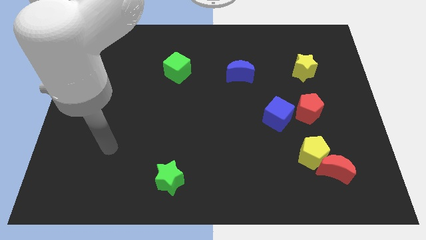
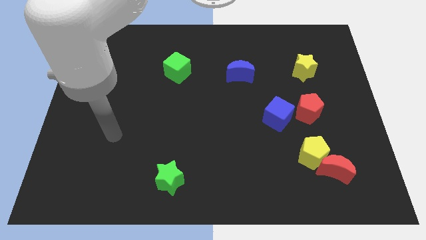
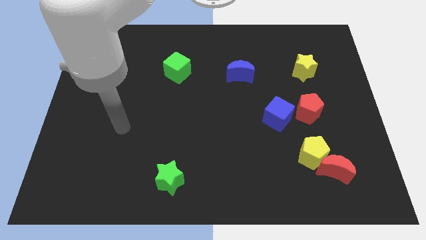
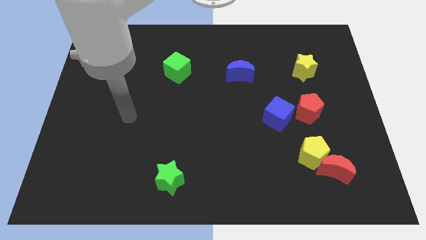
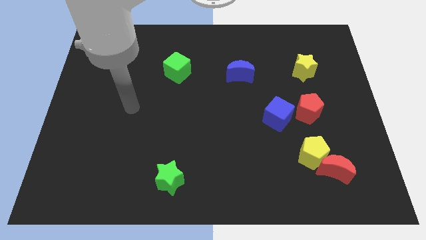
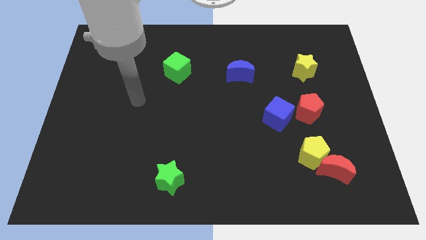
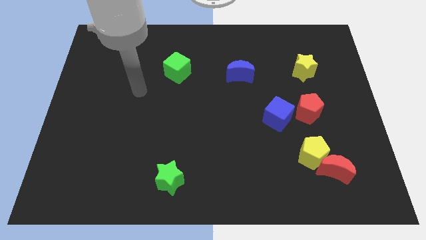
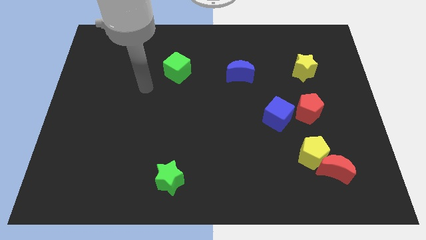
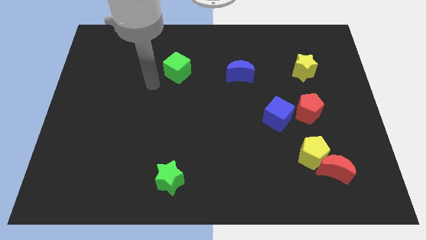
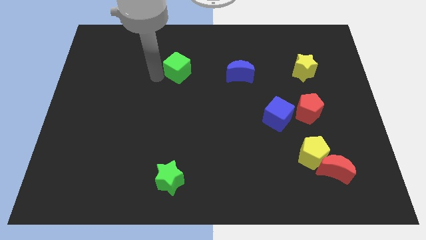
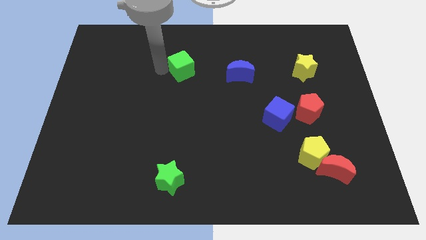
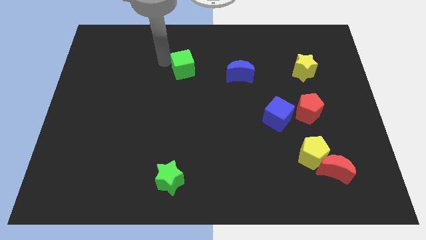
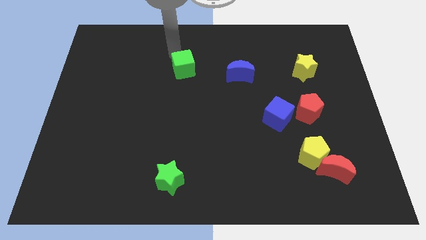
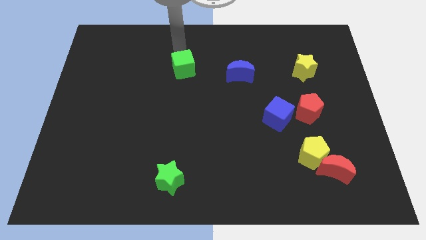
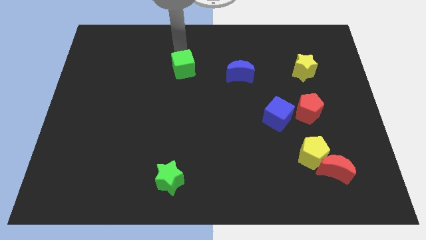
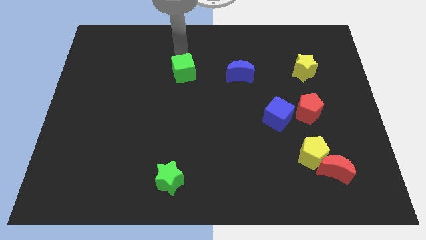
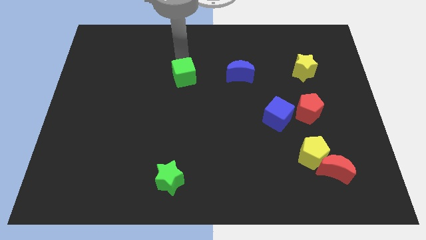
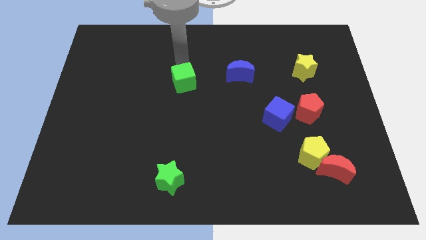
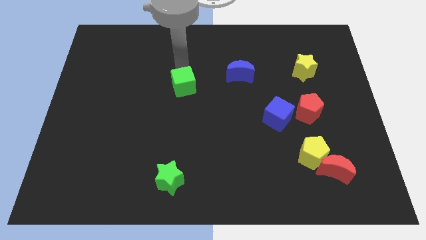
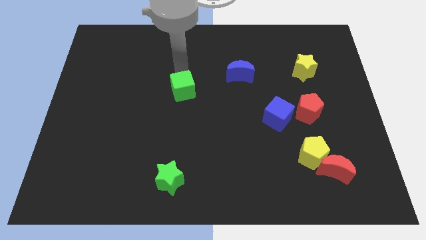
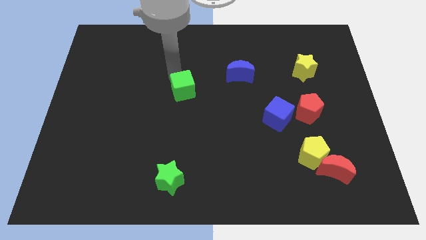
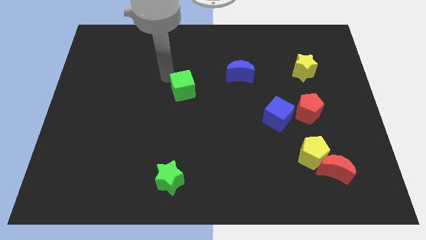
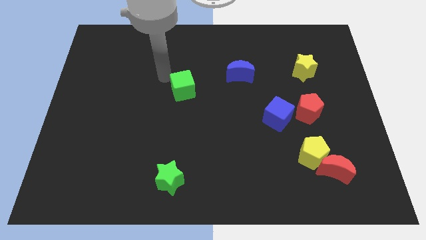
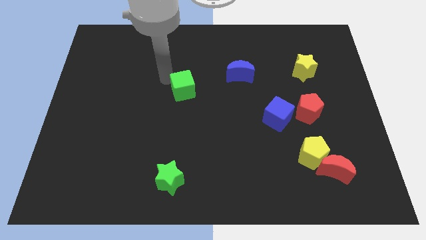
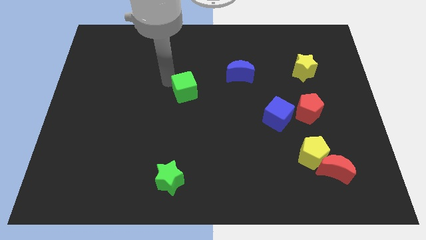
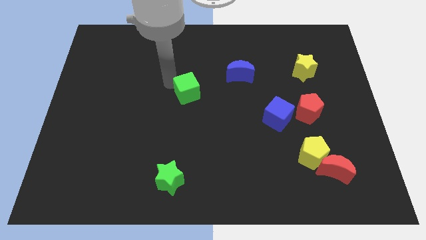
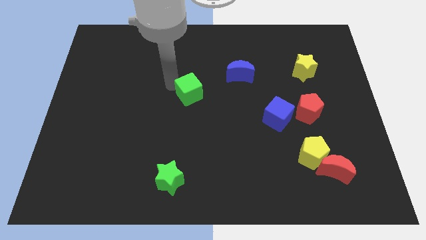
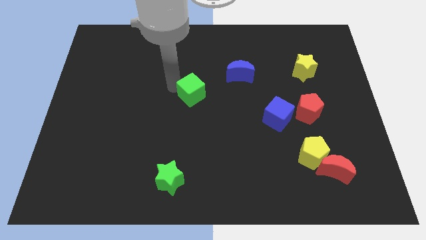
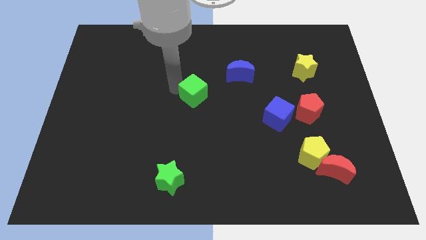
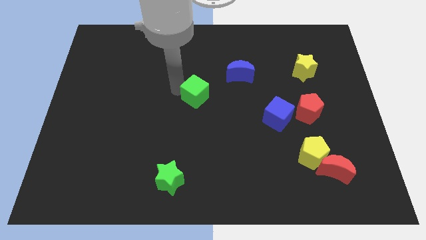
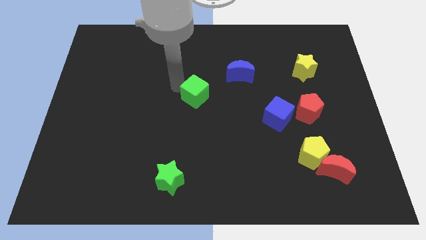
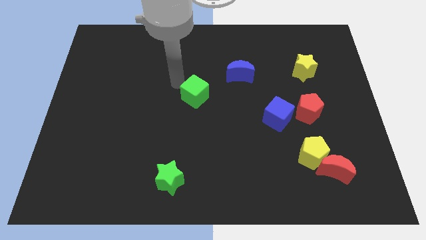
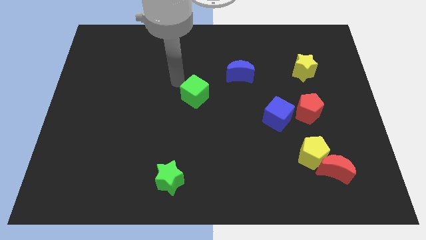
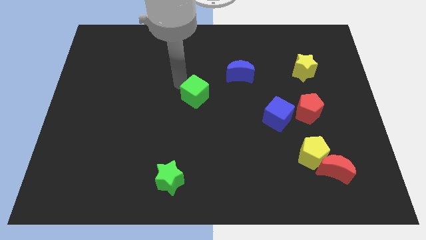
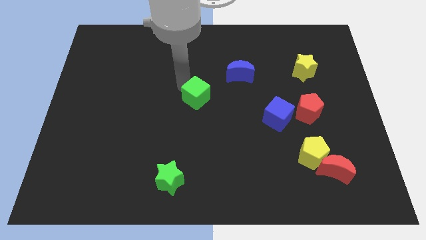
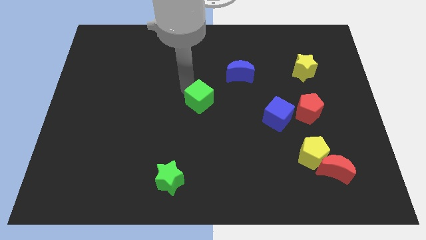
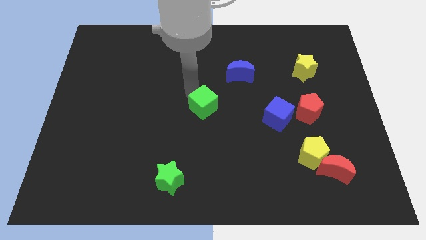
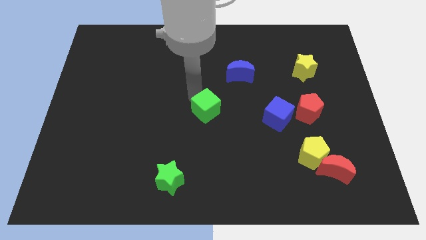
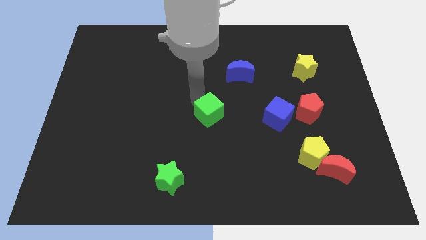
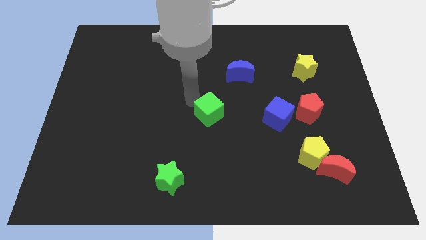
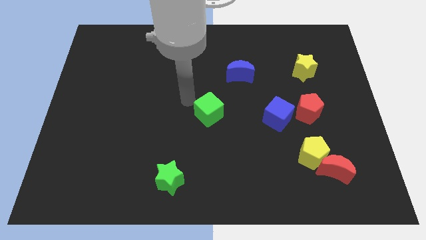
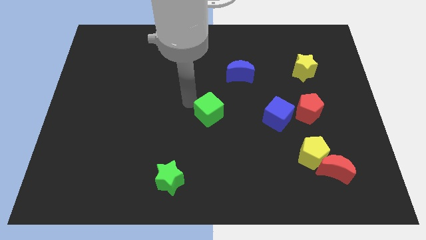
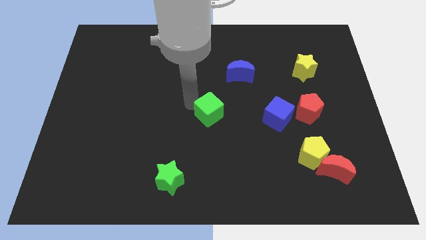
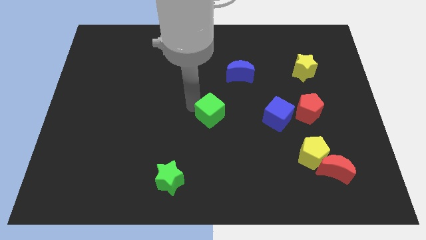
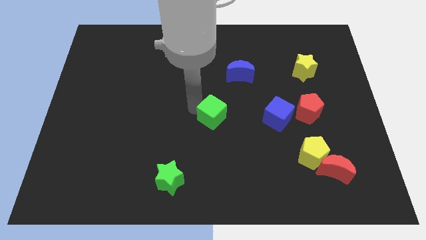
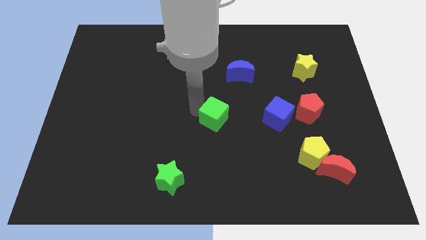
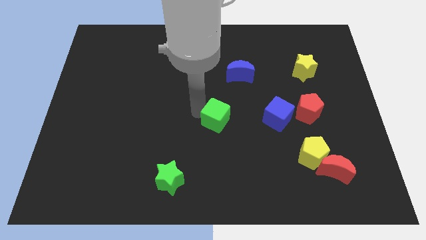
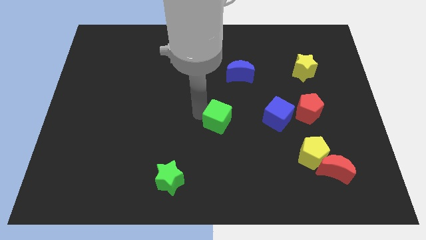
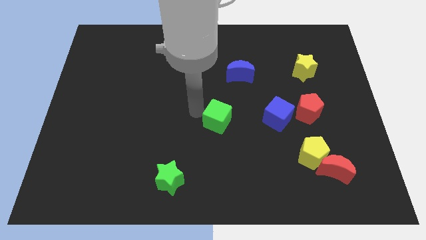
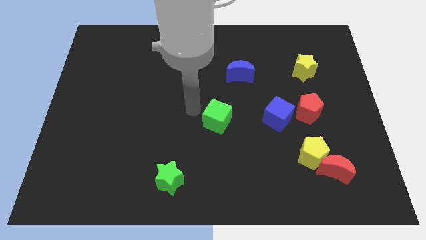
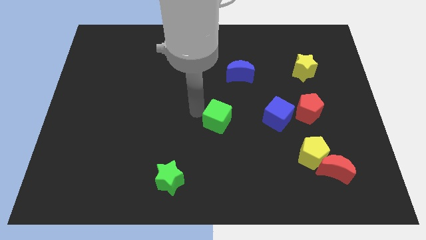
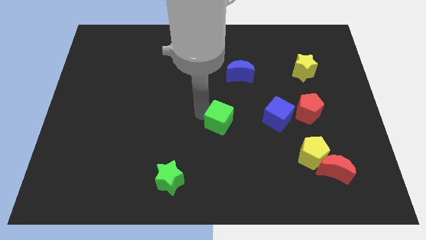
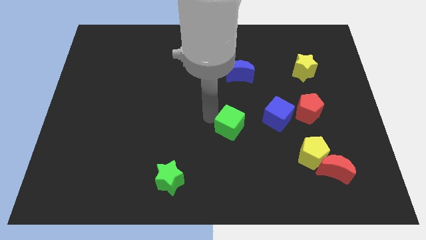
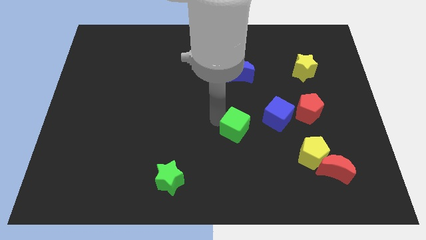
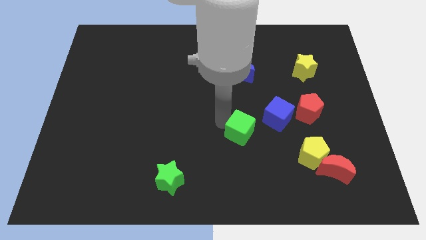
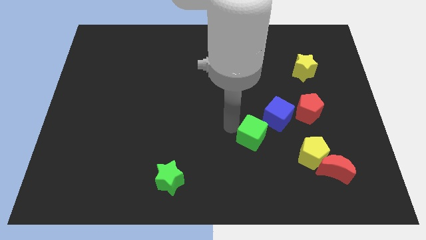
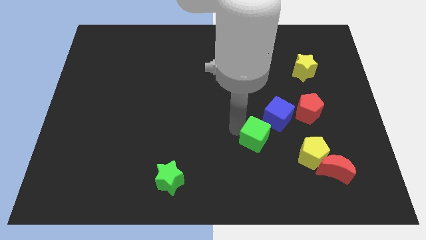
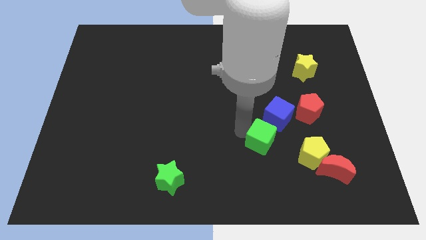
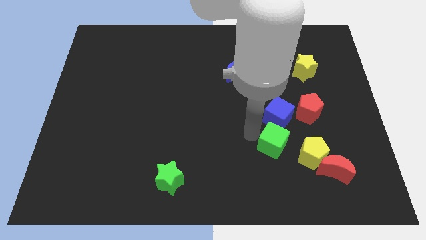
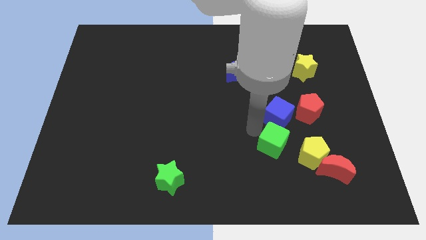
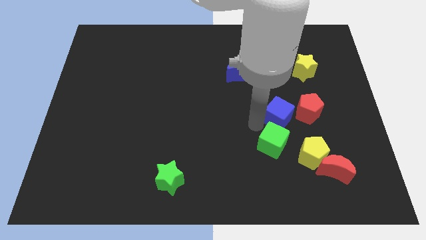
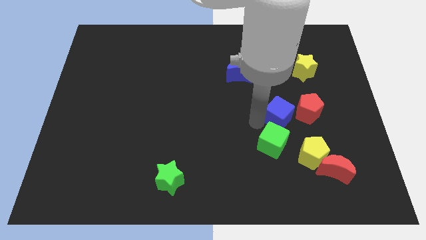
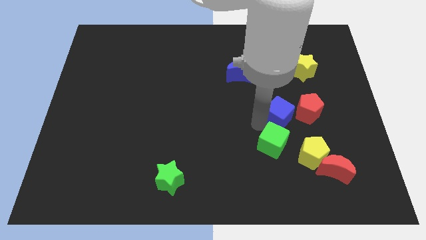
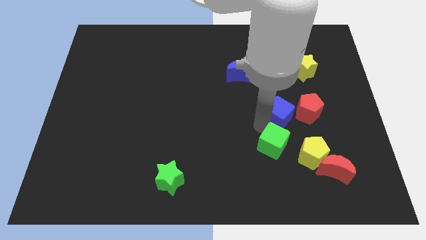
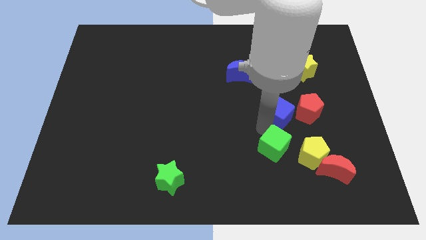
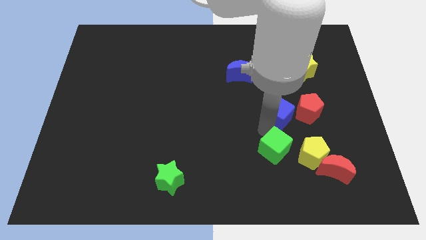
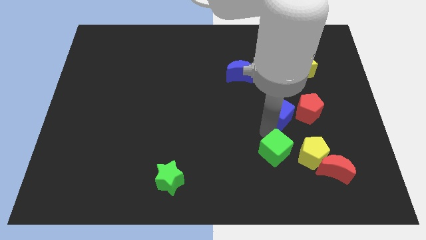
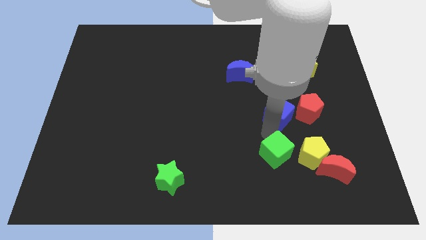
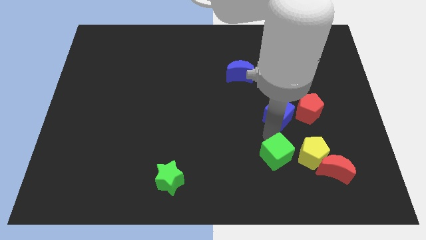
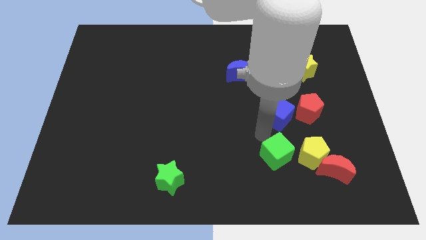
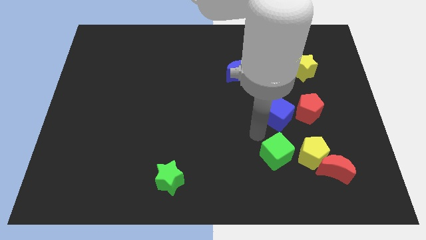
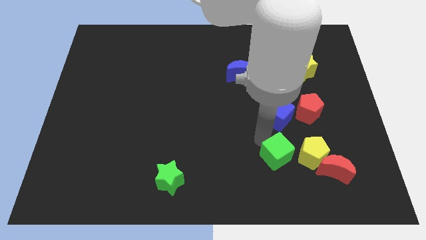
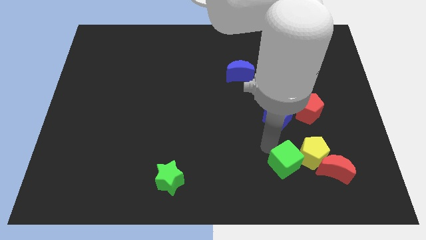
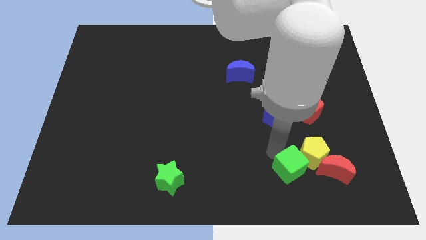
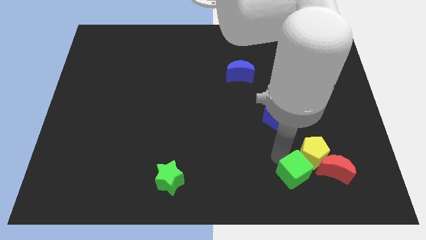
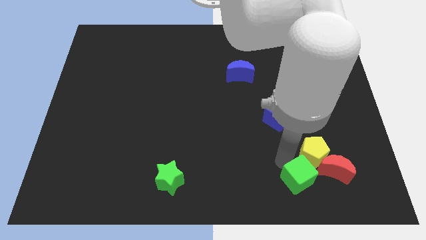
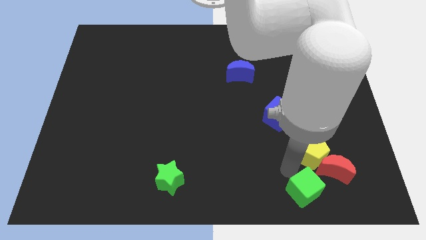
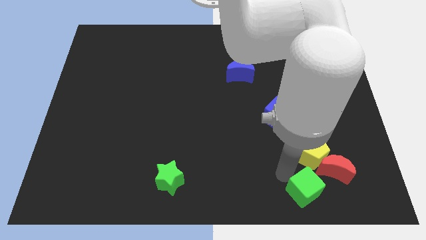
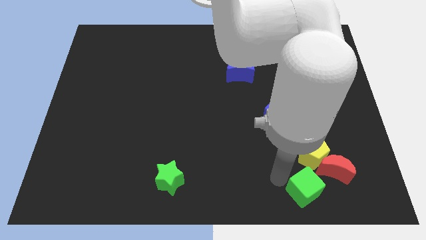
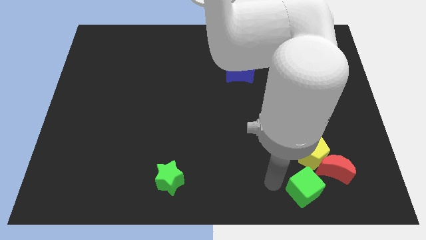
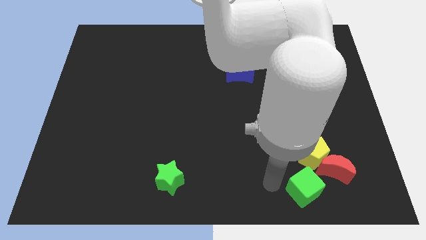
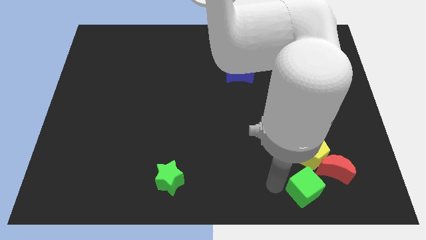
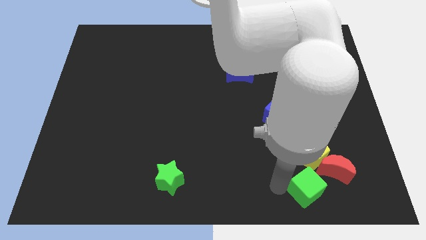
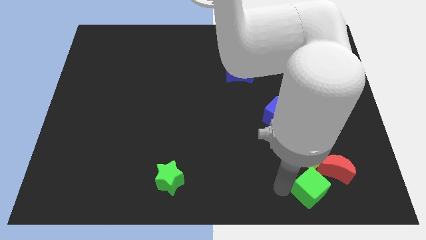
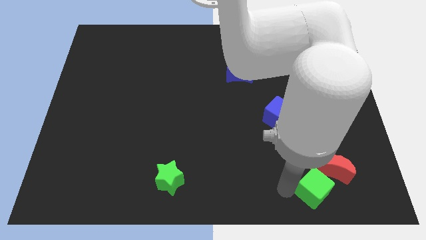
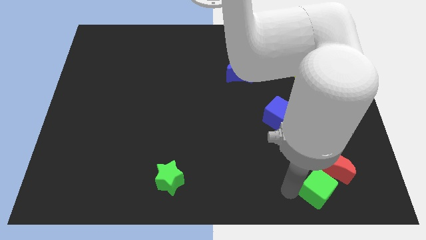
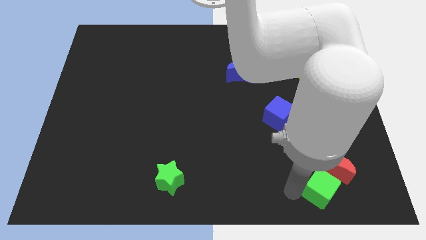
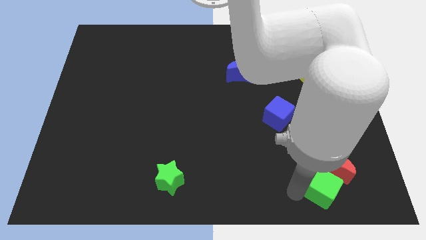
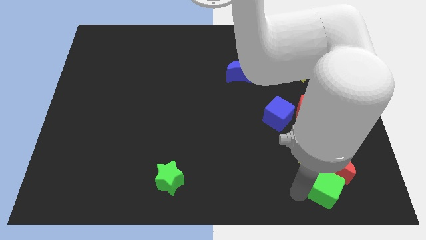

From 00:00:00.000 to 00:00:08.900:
slide the green cube to the bottom right side of the yellow pentagon
